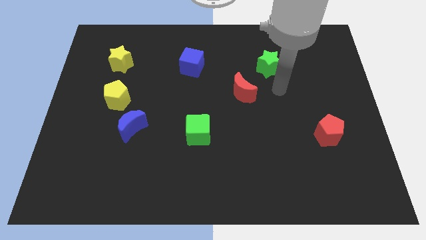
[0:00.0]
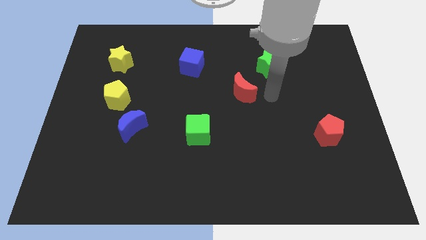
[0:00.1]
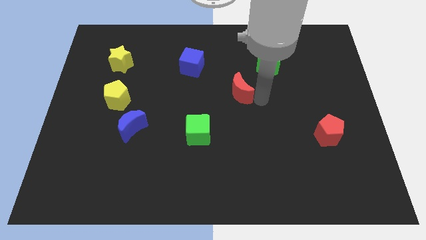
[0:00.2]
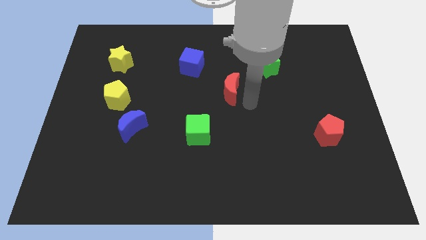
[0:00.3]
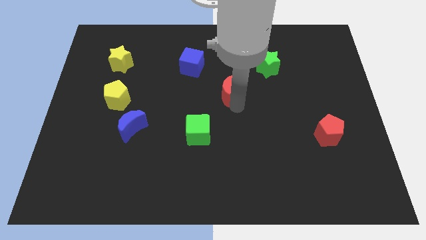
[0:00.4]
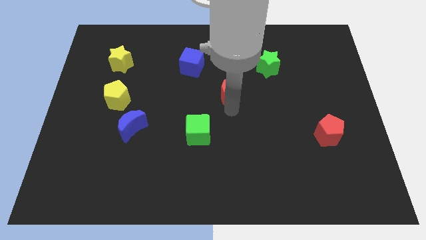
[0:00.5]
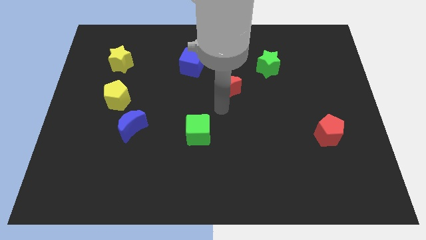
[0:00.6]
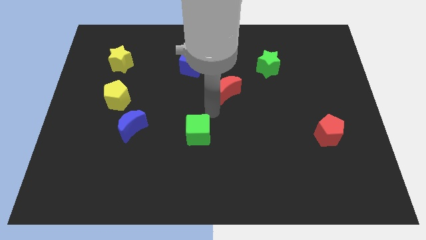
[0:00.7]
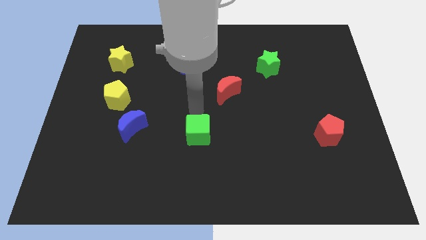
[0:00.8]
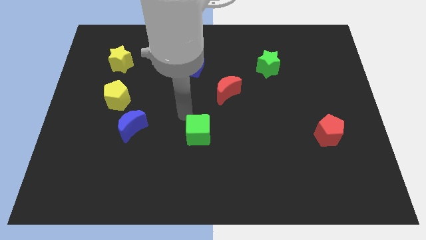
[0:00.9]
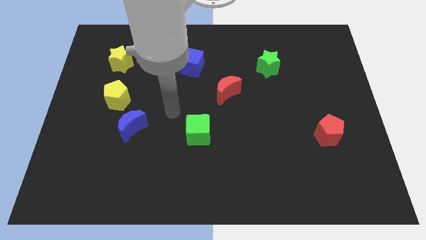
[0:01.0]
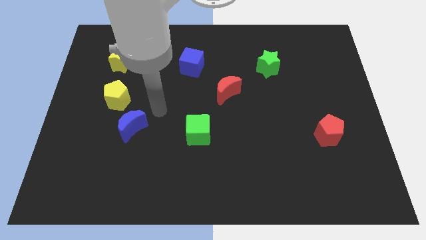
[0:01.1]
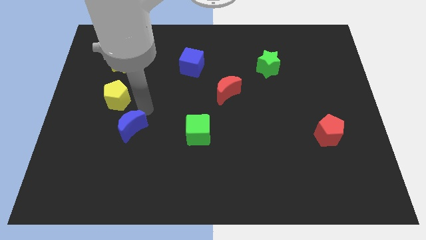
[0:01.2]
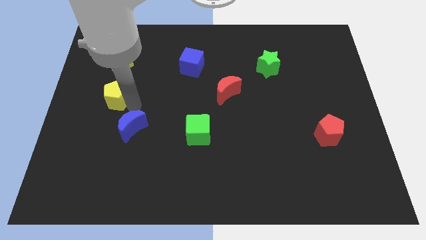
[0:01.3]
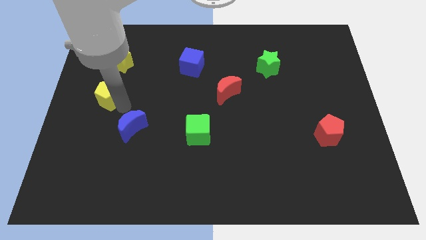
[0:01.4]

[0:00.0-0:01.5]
move the blue moon away from the yellow pentagon

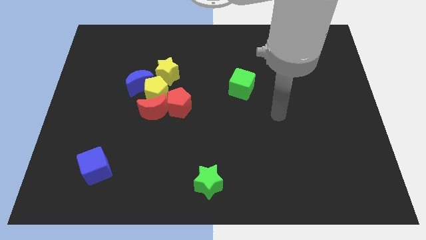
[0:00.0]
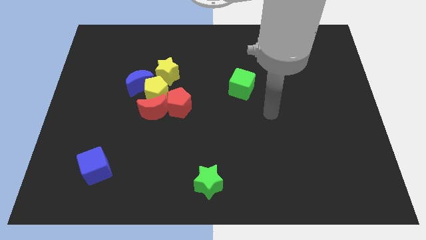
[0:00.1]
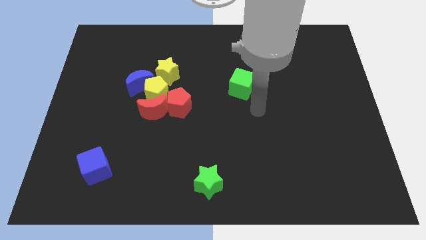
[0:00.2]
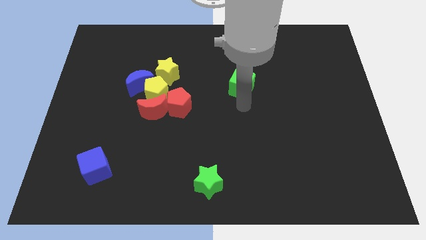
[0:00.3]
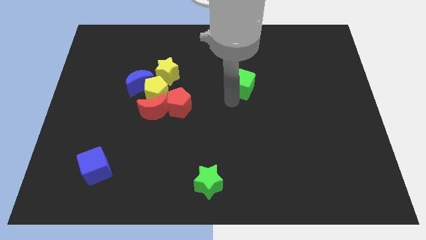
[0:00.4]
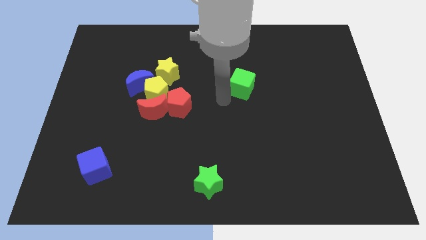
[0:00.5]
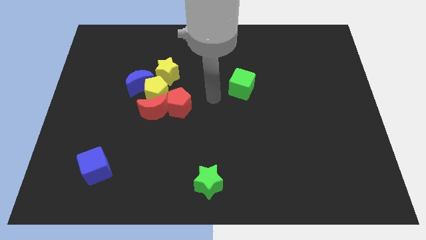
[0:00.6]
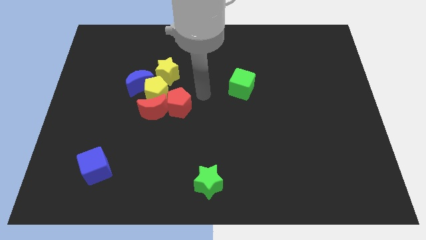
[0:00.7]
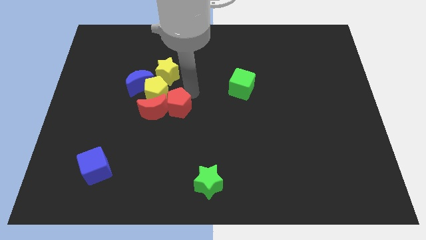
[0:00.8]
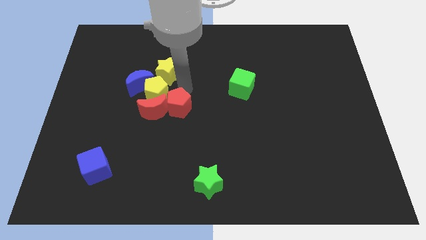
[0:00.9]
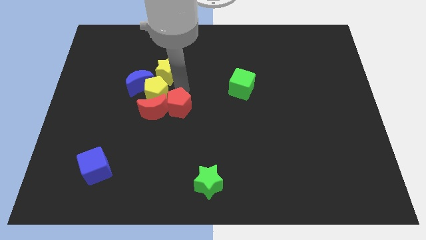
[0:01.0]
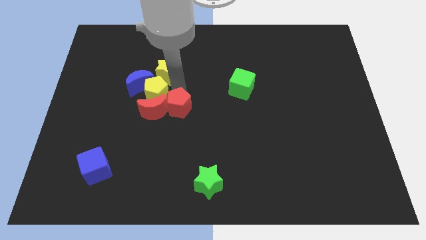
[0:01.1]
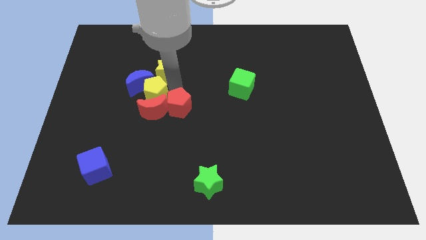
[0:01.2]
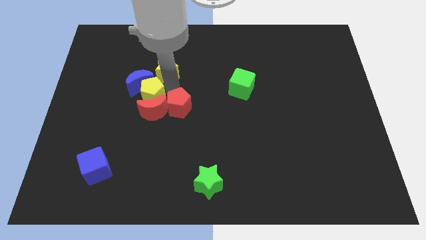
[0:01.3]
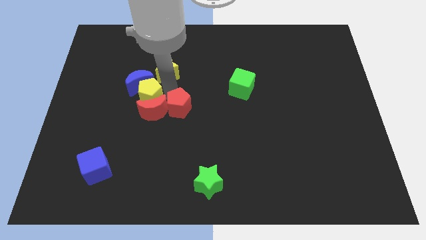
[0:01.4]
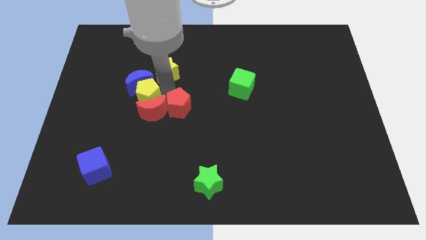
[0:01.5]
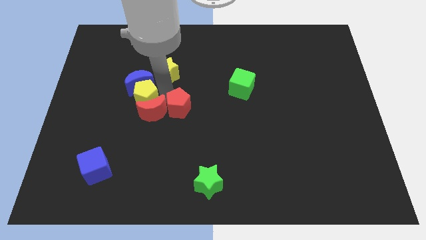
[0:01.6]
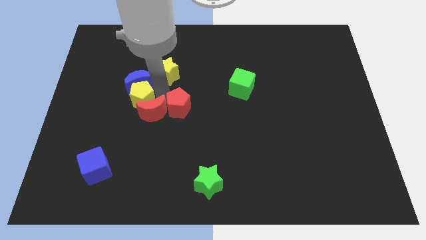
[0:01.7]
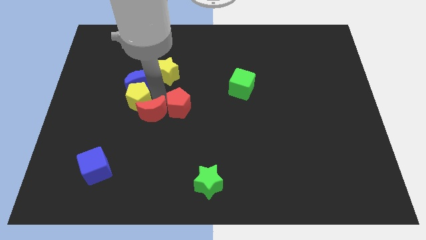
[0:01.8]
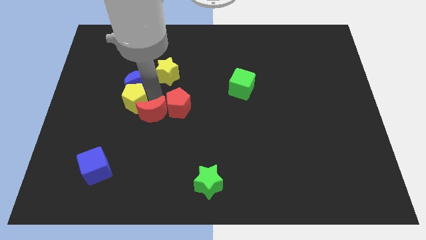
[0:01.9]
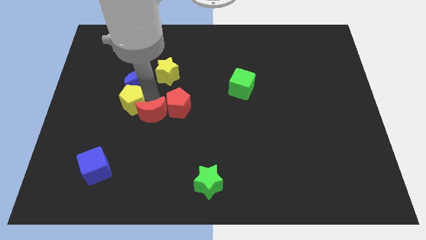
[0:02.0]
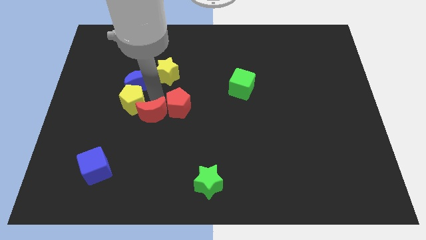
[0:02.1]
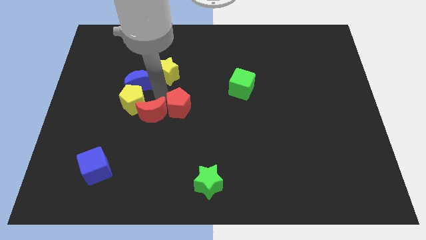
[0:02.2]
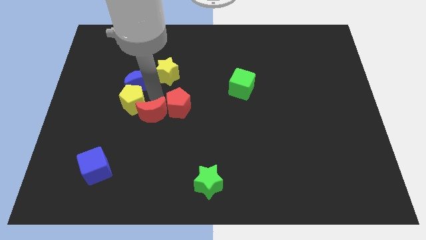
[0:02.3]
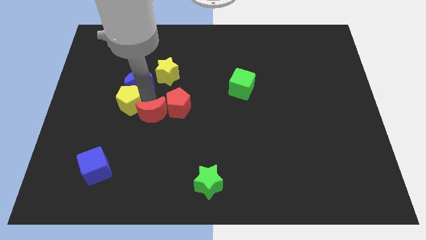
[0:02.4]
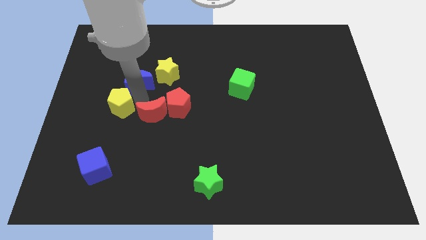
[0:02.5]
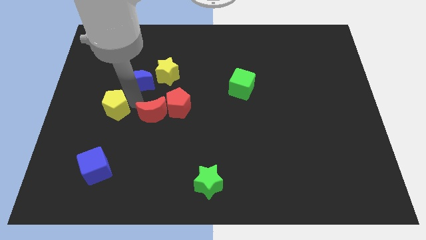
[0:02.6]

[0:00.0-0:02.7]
move the yellow pentagon away from the group

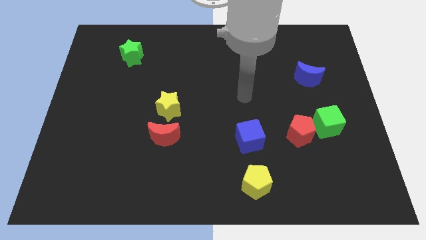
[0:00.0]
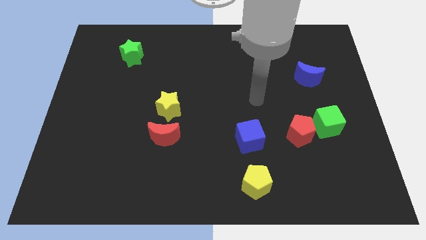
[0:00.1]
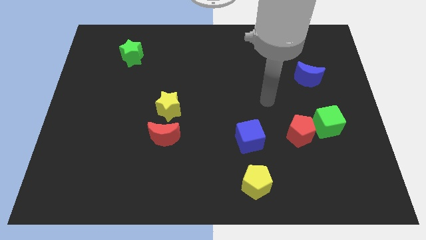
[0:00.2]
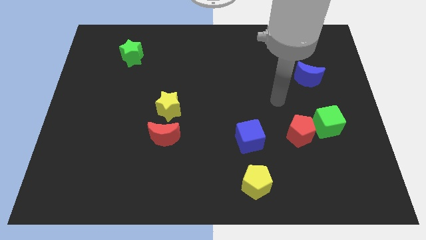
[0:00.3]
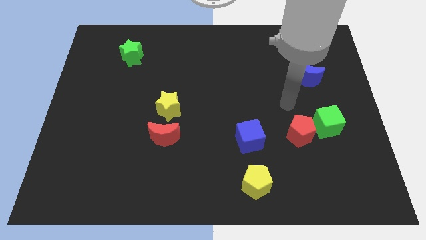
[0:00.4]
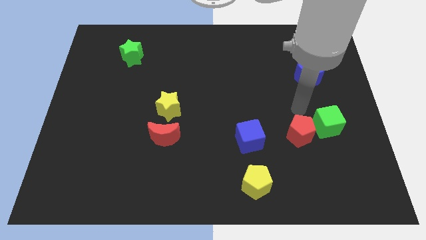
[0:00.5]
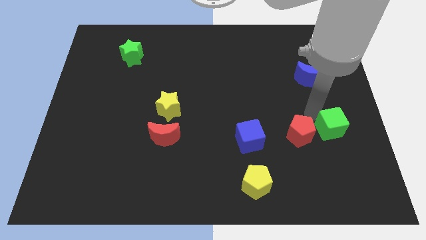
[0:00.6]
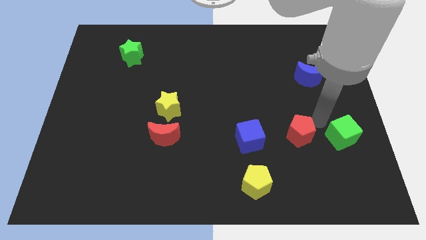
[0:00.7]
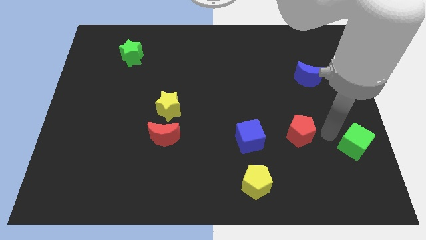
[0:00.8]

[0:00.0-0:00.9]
move the red pentagon away from the green cube

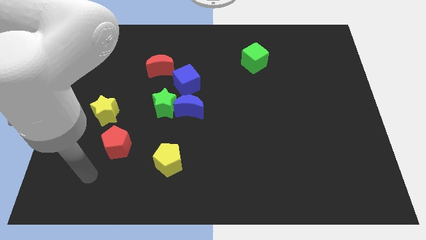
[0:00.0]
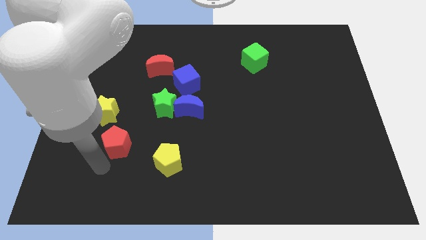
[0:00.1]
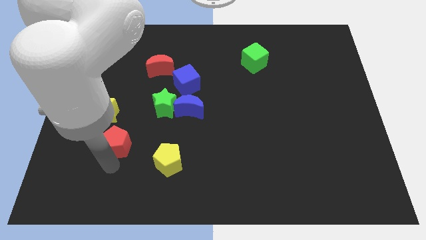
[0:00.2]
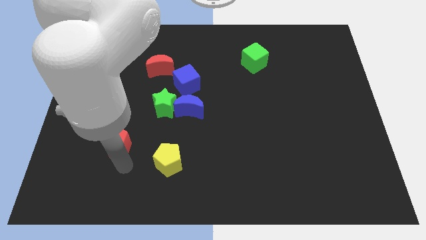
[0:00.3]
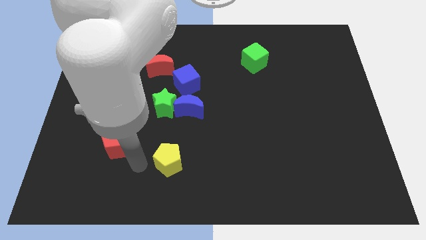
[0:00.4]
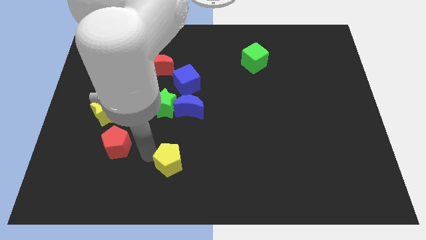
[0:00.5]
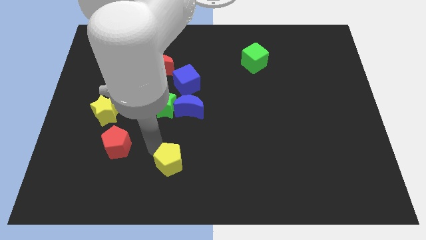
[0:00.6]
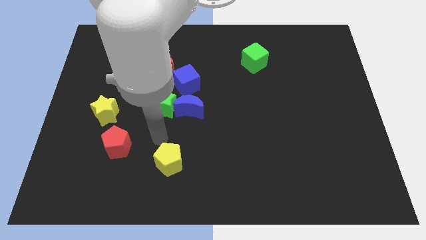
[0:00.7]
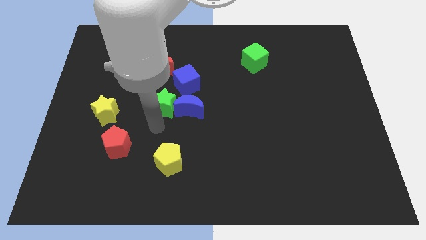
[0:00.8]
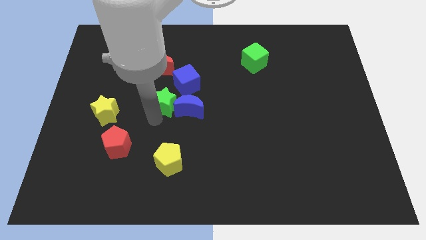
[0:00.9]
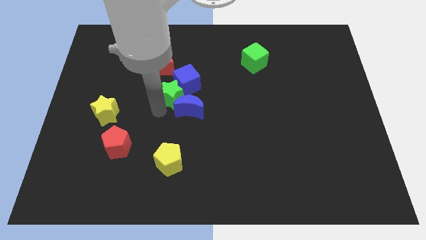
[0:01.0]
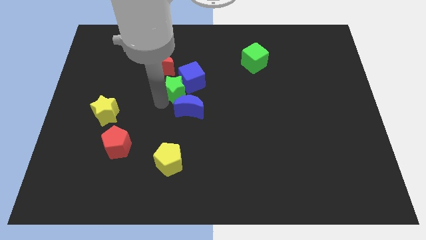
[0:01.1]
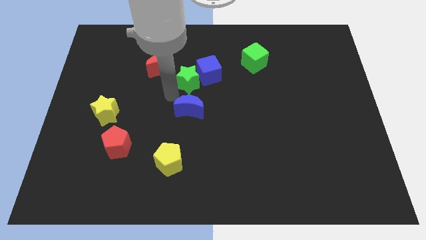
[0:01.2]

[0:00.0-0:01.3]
pull the blue moon apart from the green star and blue cube

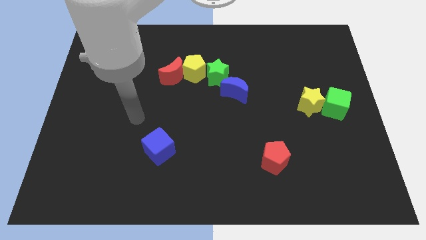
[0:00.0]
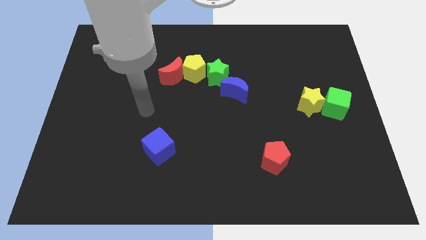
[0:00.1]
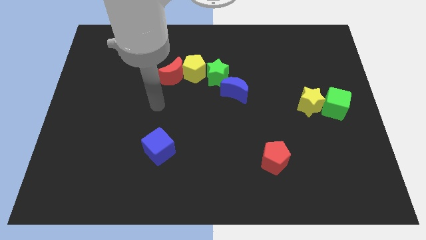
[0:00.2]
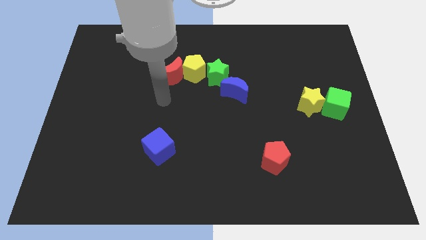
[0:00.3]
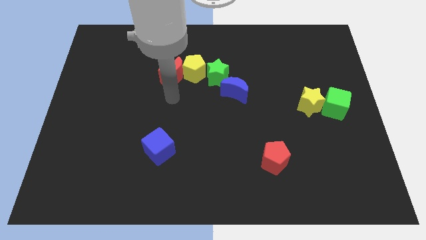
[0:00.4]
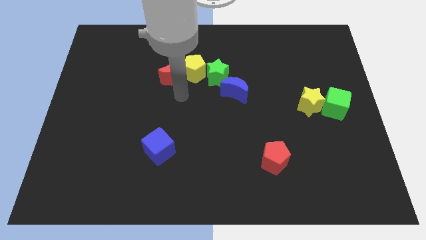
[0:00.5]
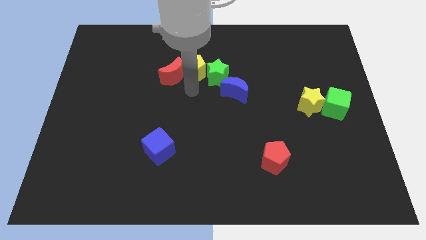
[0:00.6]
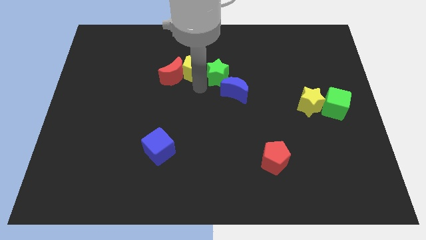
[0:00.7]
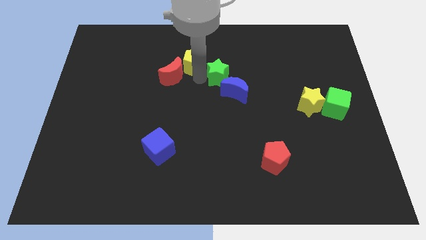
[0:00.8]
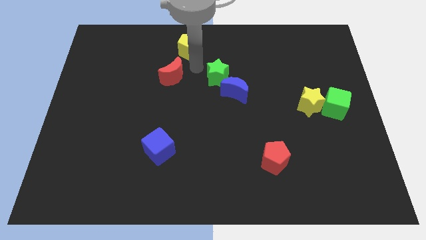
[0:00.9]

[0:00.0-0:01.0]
separate the red moon from the yellow pentagon

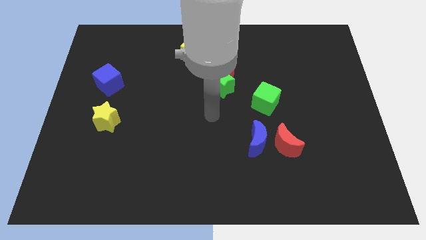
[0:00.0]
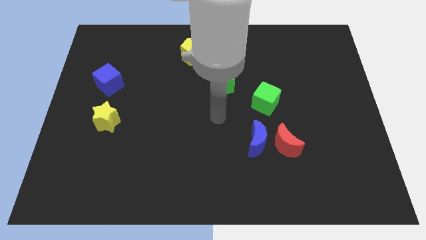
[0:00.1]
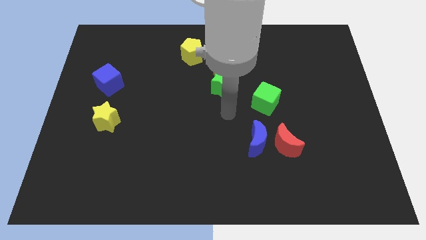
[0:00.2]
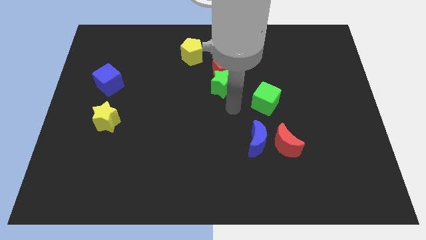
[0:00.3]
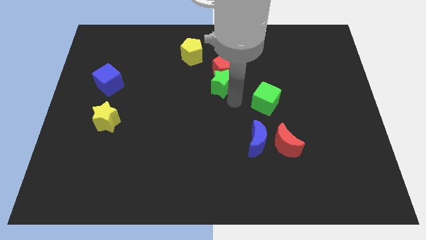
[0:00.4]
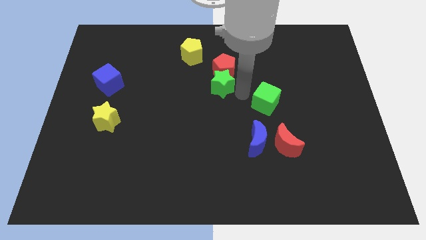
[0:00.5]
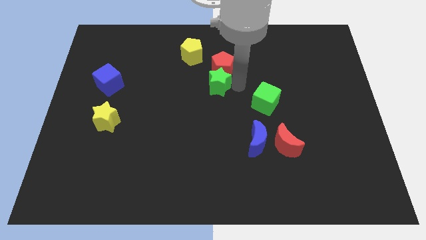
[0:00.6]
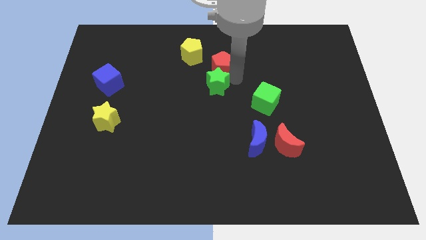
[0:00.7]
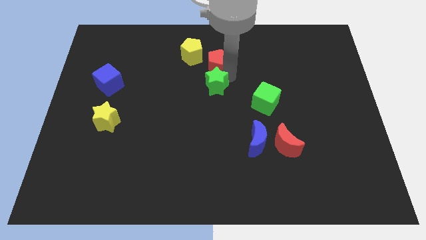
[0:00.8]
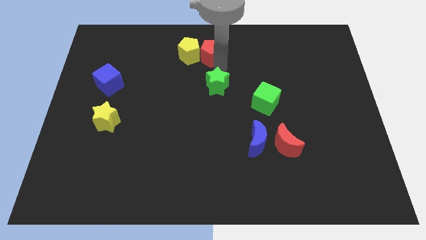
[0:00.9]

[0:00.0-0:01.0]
separate the green star from the red pentagon

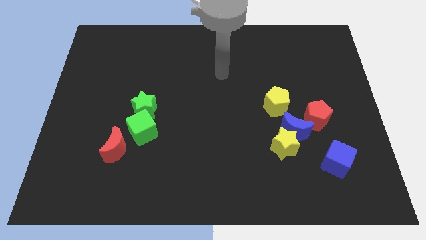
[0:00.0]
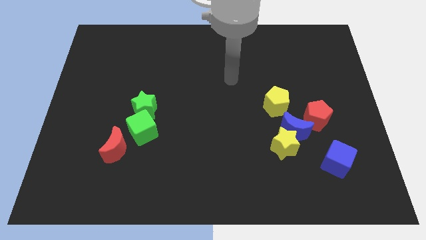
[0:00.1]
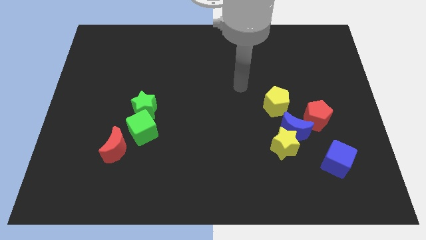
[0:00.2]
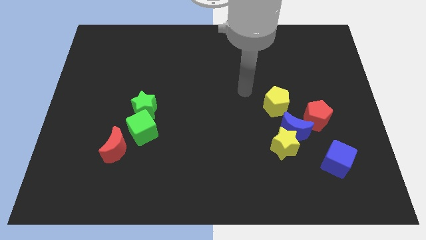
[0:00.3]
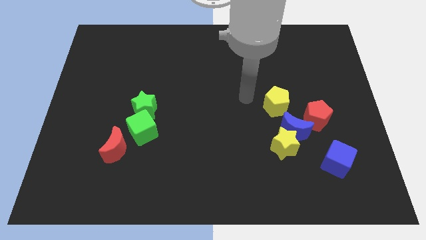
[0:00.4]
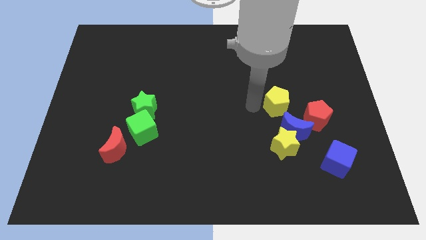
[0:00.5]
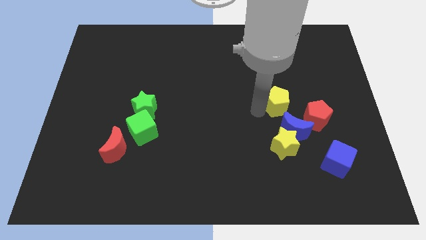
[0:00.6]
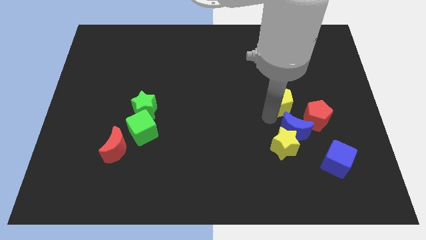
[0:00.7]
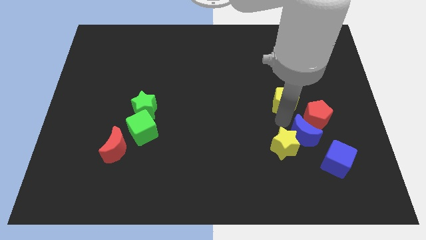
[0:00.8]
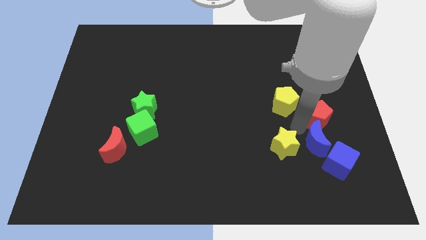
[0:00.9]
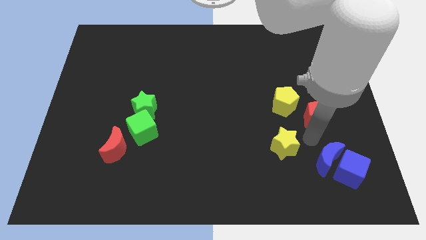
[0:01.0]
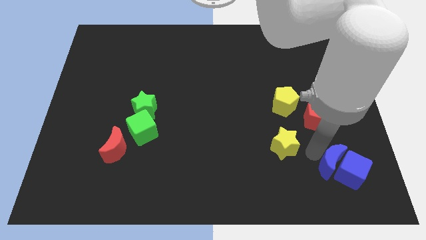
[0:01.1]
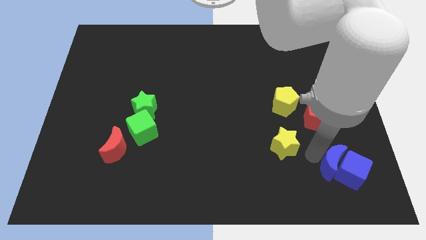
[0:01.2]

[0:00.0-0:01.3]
move the yellow star away from the blue moon
